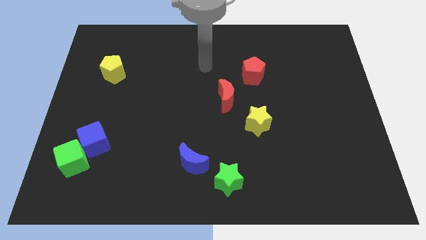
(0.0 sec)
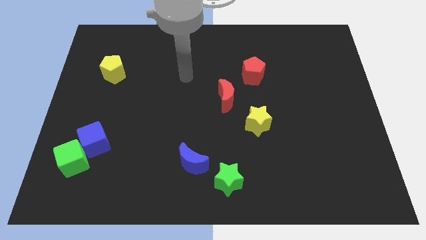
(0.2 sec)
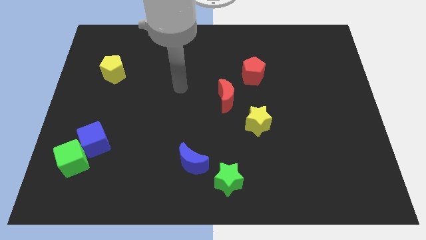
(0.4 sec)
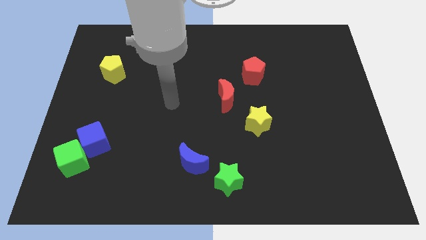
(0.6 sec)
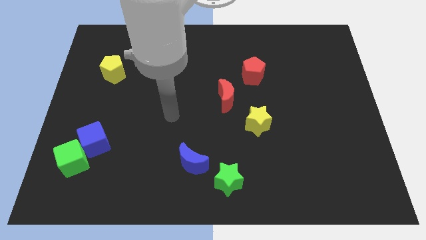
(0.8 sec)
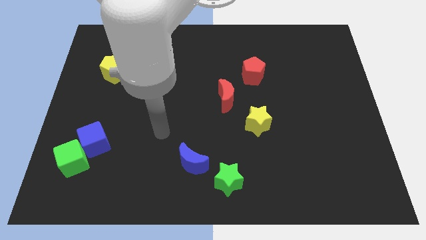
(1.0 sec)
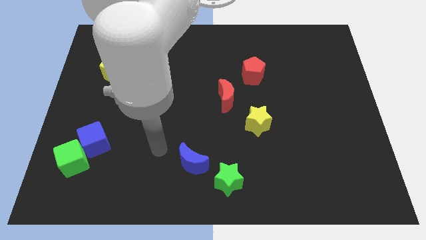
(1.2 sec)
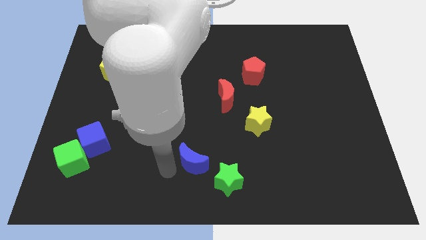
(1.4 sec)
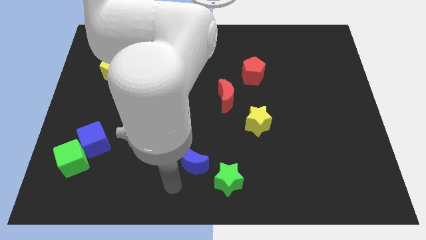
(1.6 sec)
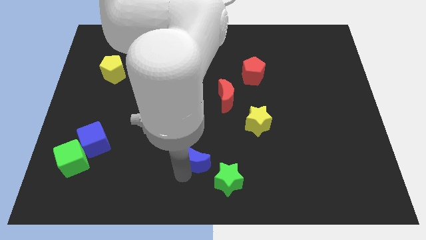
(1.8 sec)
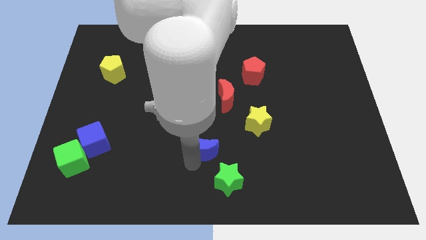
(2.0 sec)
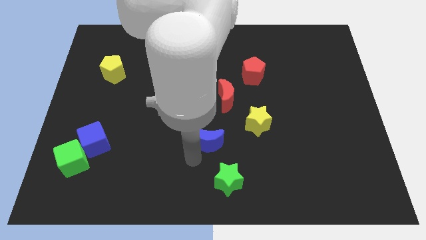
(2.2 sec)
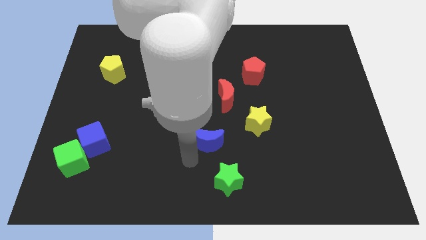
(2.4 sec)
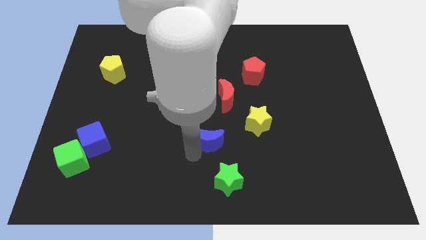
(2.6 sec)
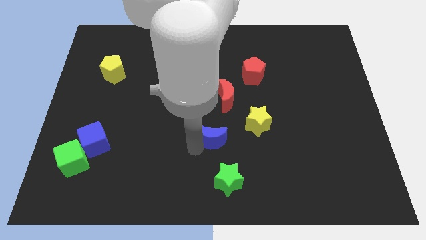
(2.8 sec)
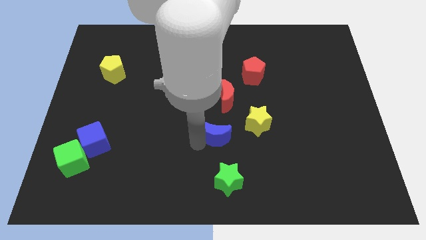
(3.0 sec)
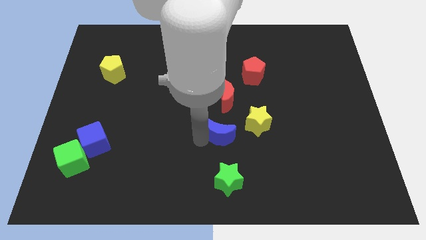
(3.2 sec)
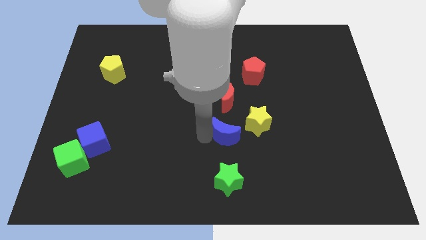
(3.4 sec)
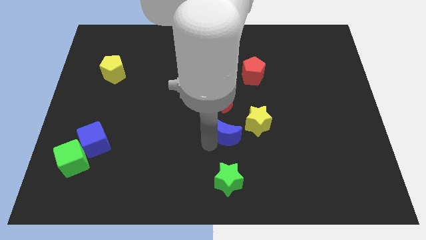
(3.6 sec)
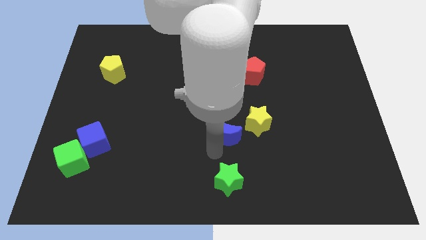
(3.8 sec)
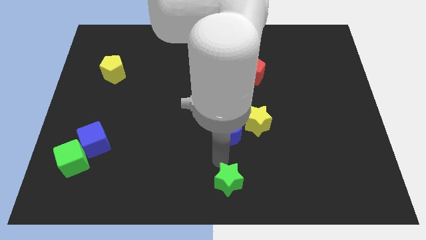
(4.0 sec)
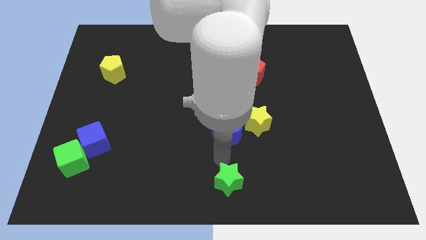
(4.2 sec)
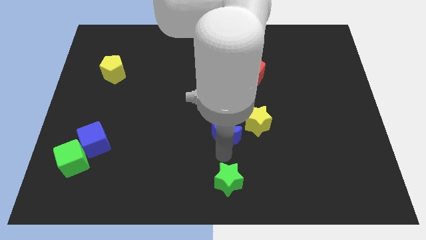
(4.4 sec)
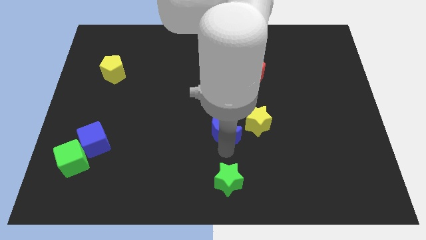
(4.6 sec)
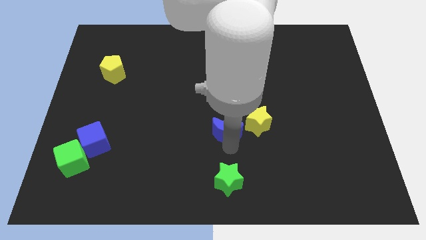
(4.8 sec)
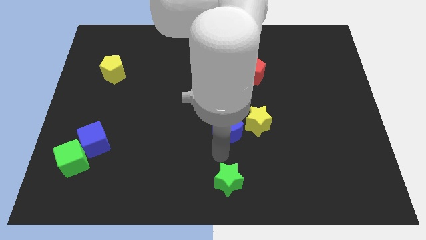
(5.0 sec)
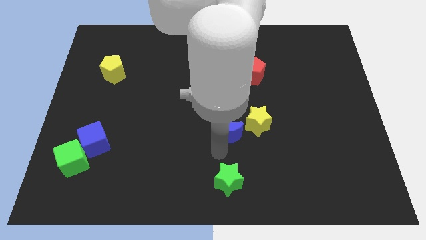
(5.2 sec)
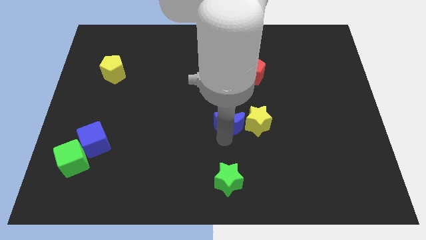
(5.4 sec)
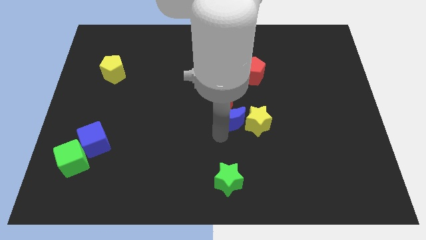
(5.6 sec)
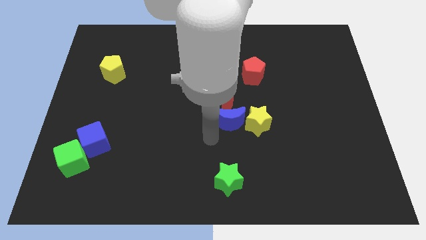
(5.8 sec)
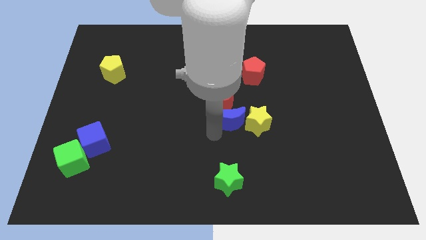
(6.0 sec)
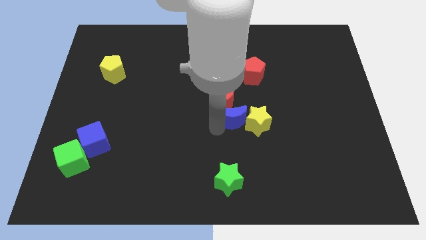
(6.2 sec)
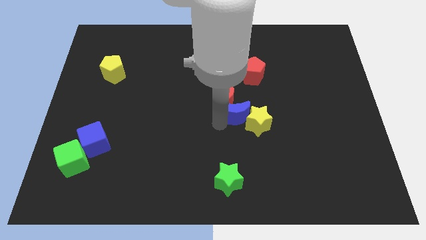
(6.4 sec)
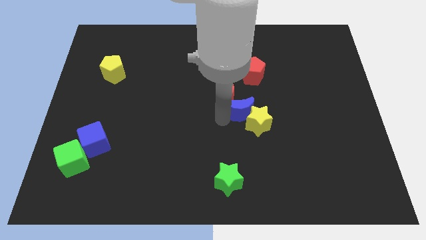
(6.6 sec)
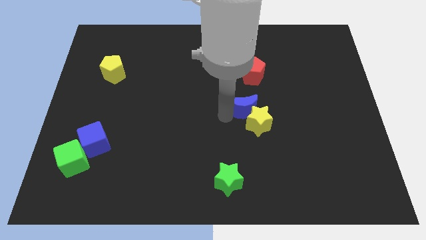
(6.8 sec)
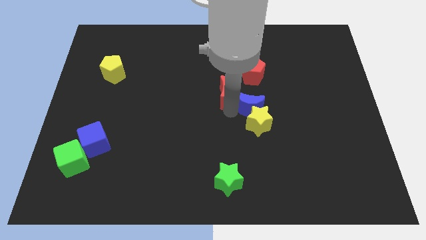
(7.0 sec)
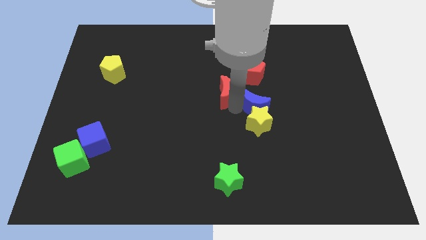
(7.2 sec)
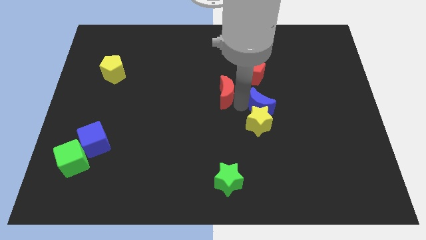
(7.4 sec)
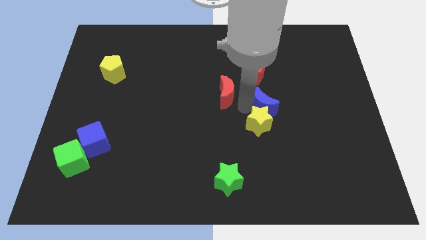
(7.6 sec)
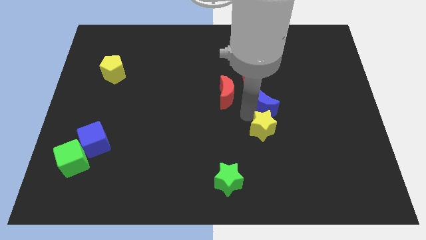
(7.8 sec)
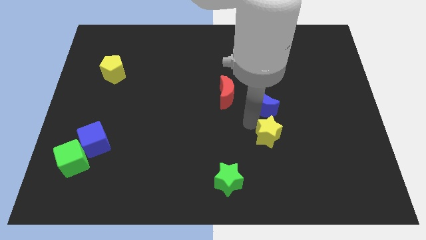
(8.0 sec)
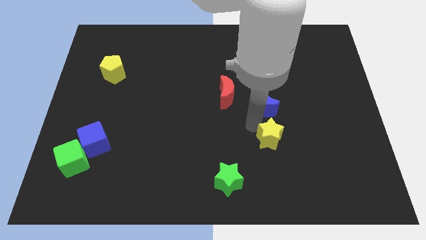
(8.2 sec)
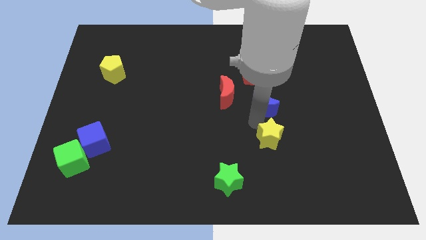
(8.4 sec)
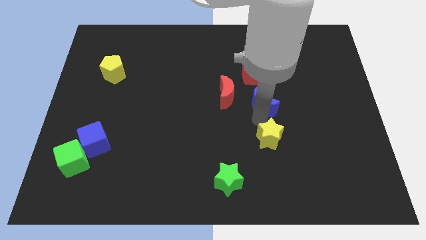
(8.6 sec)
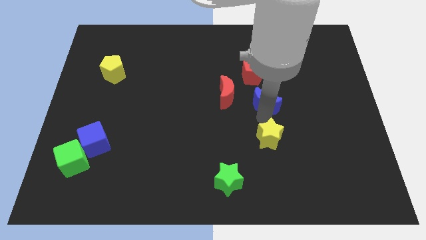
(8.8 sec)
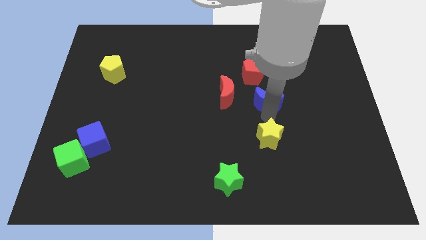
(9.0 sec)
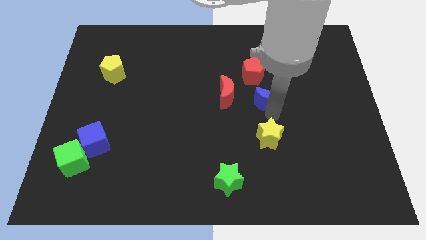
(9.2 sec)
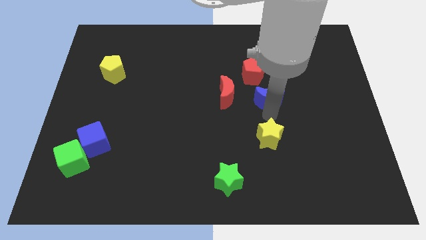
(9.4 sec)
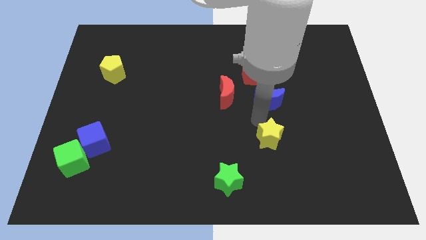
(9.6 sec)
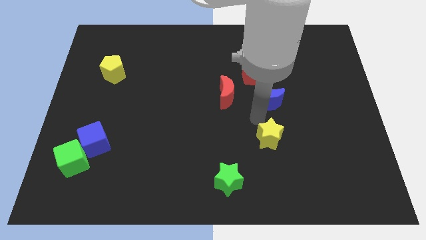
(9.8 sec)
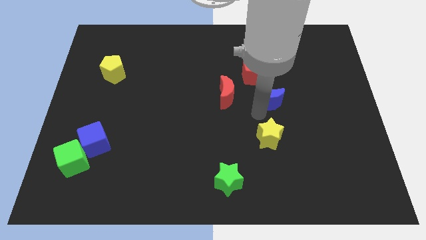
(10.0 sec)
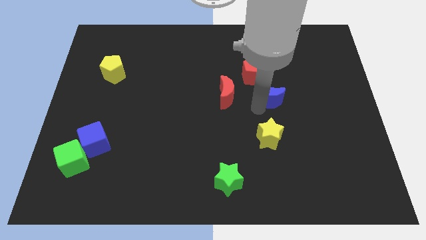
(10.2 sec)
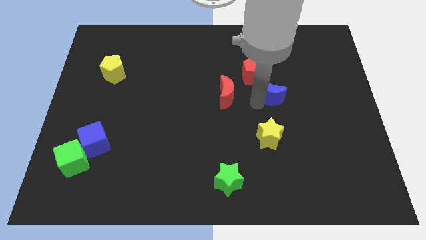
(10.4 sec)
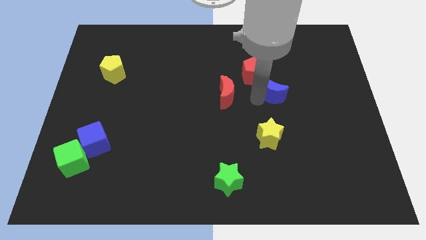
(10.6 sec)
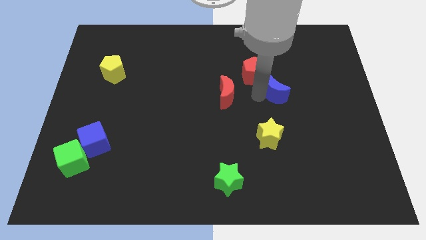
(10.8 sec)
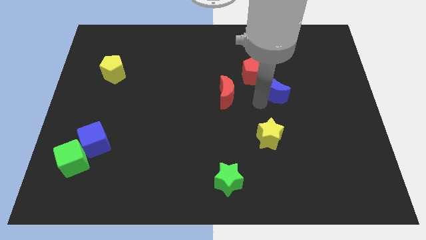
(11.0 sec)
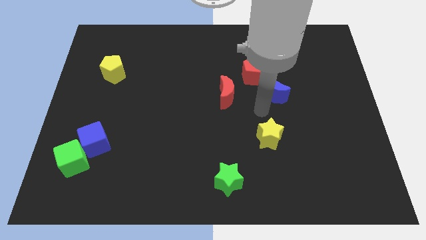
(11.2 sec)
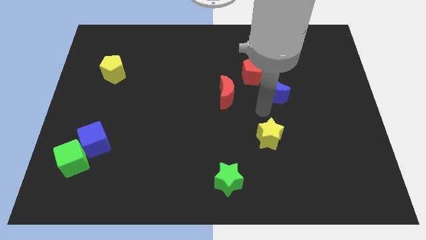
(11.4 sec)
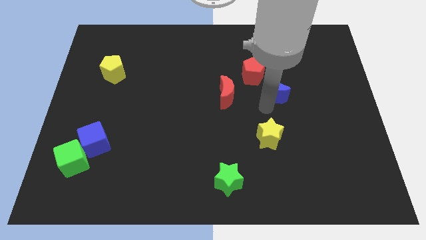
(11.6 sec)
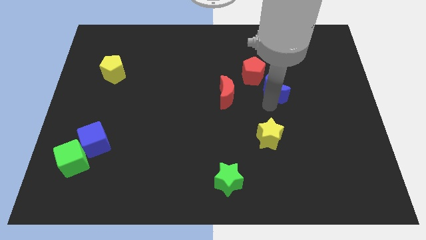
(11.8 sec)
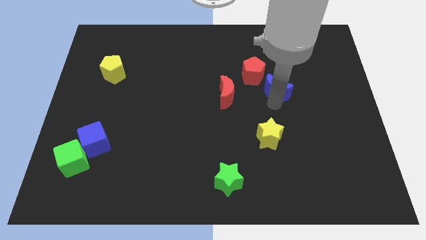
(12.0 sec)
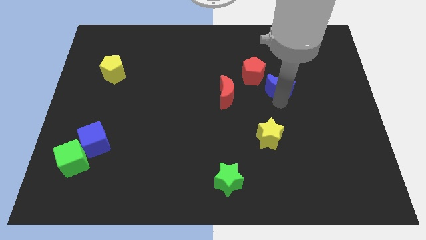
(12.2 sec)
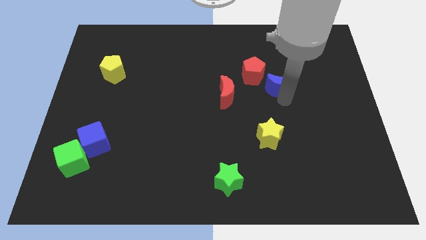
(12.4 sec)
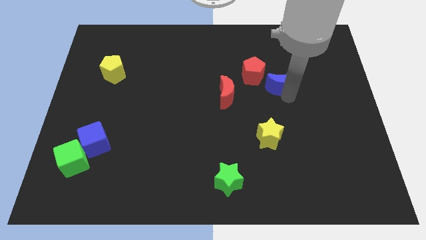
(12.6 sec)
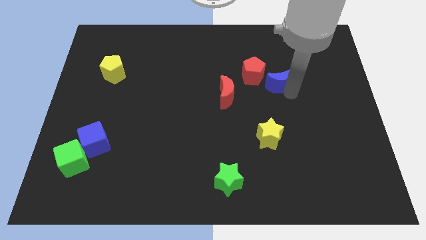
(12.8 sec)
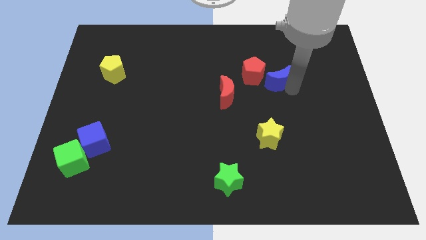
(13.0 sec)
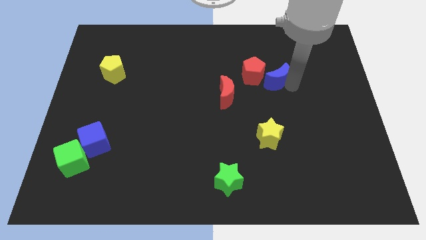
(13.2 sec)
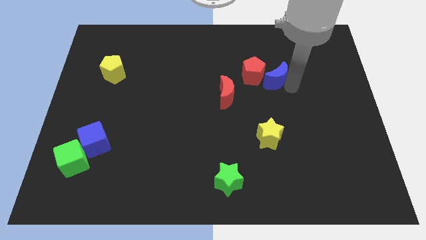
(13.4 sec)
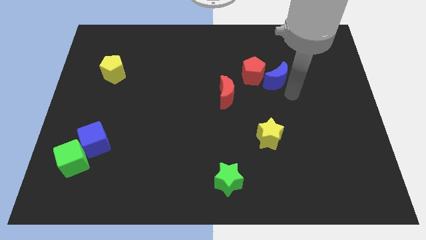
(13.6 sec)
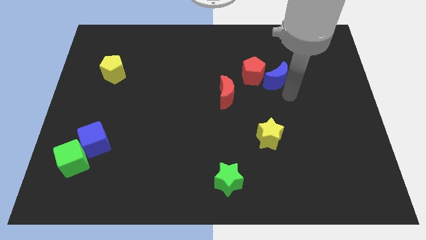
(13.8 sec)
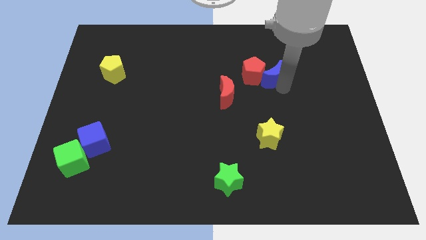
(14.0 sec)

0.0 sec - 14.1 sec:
move the blue moon diagonally up and to the right of the red pentagon
